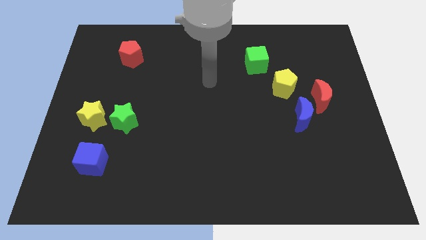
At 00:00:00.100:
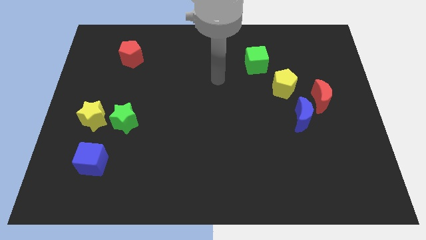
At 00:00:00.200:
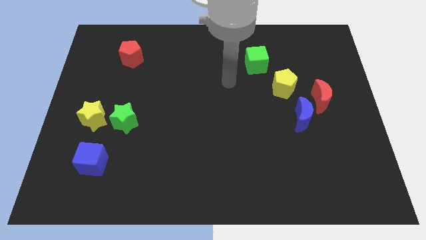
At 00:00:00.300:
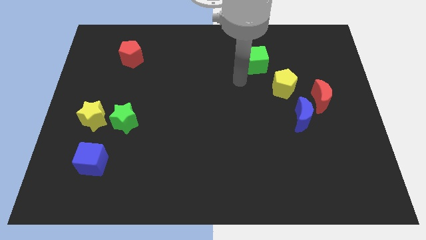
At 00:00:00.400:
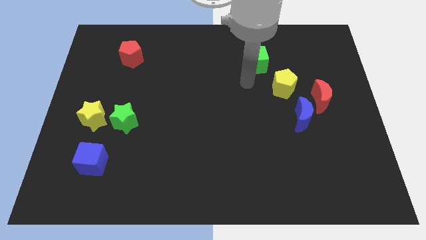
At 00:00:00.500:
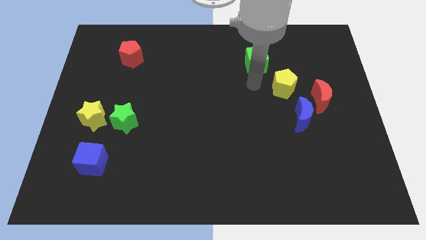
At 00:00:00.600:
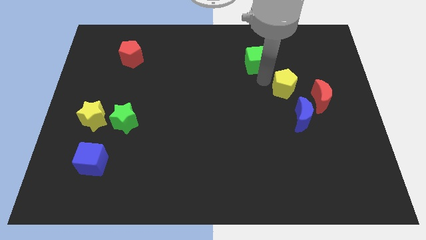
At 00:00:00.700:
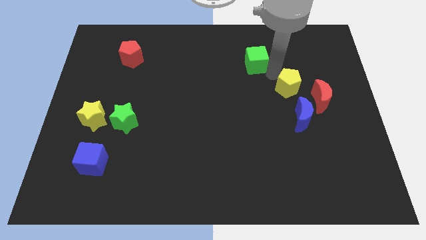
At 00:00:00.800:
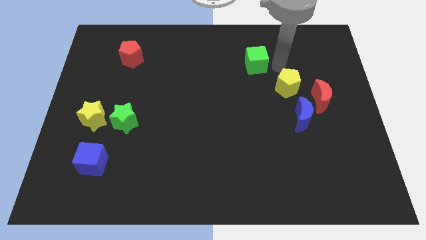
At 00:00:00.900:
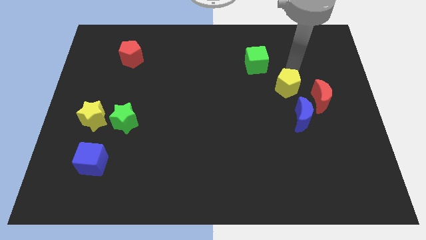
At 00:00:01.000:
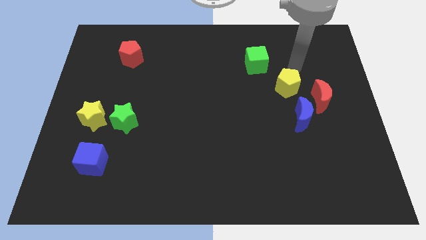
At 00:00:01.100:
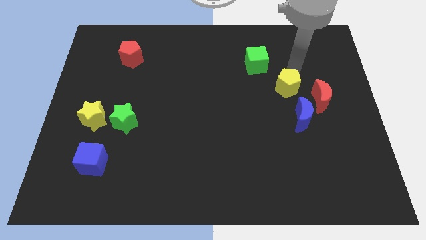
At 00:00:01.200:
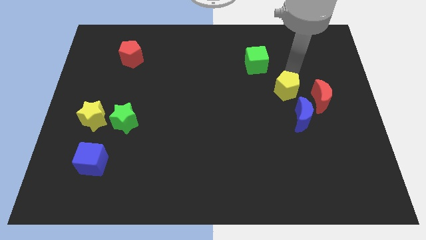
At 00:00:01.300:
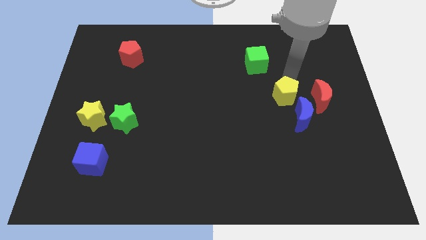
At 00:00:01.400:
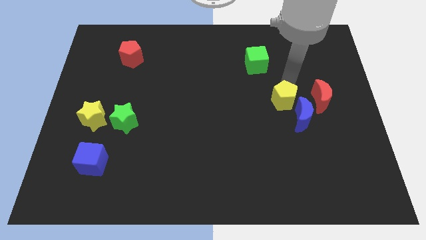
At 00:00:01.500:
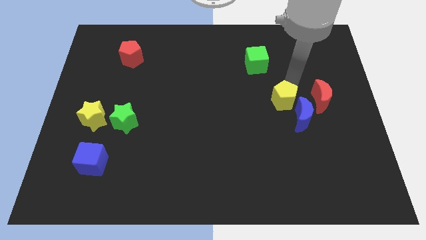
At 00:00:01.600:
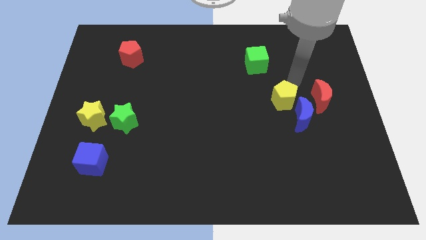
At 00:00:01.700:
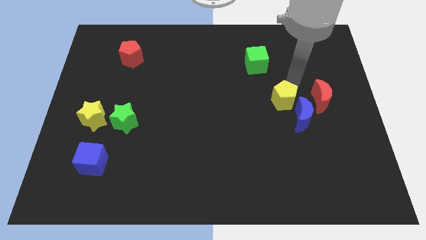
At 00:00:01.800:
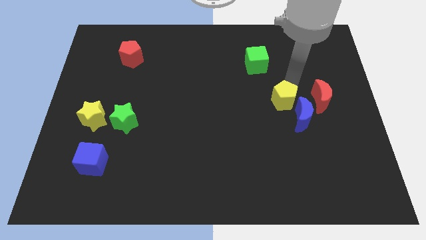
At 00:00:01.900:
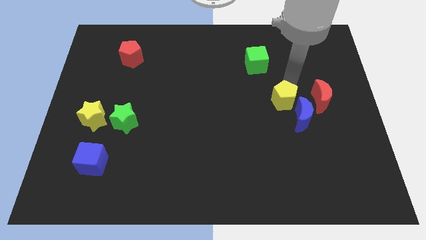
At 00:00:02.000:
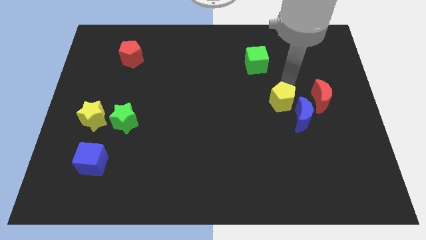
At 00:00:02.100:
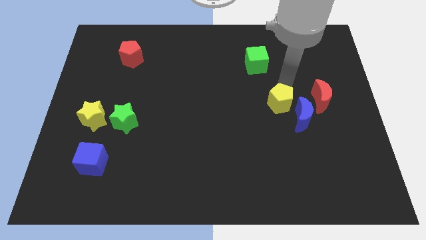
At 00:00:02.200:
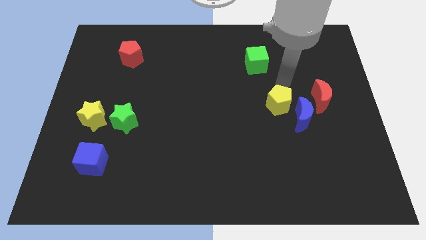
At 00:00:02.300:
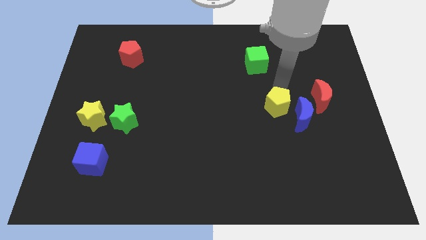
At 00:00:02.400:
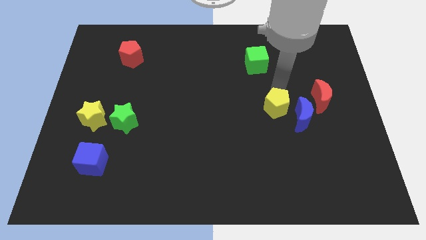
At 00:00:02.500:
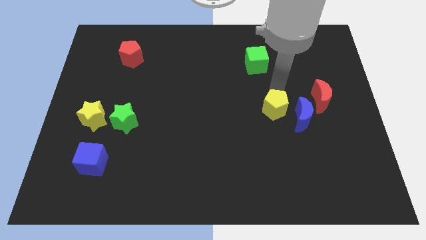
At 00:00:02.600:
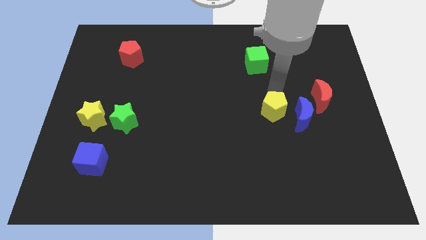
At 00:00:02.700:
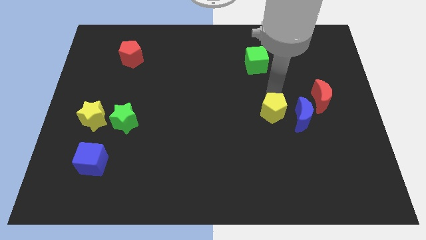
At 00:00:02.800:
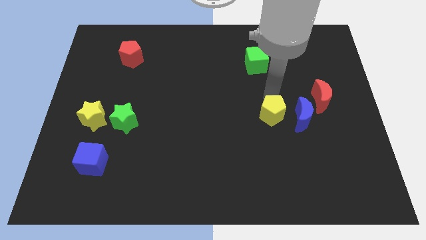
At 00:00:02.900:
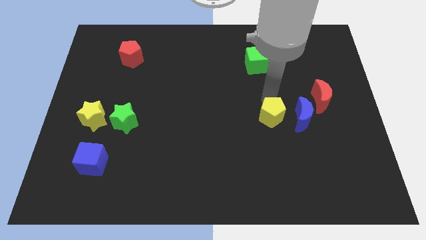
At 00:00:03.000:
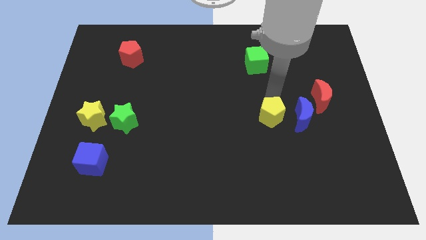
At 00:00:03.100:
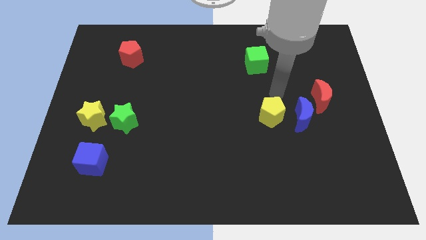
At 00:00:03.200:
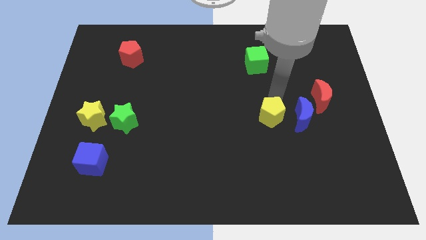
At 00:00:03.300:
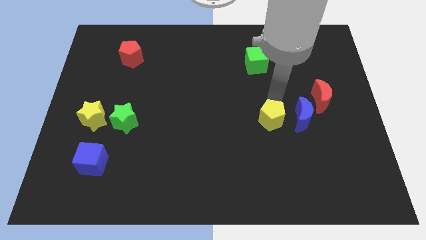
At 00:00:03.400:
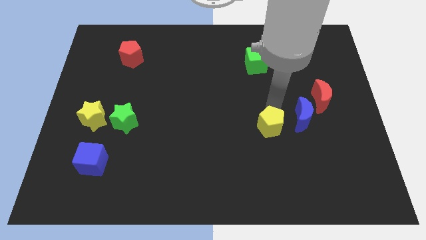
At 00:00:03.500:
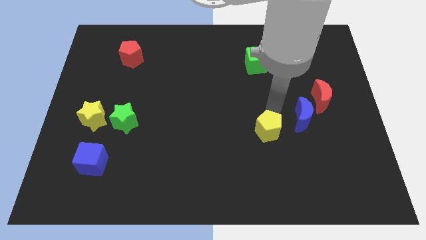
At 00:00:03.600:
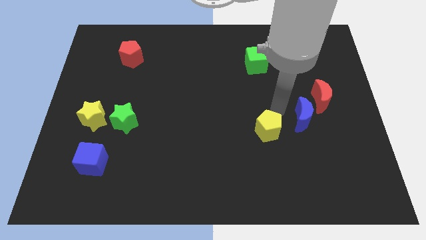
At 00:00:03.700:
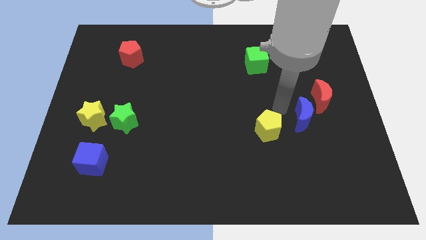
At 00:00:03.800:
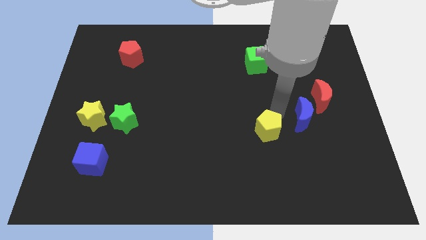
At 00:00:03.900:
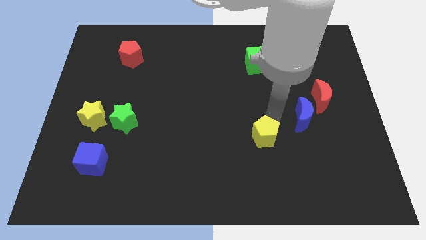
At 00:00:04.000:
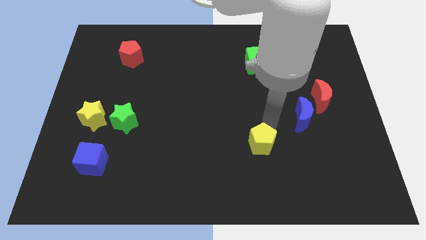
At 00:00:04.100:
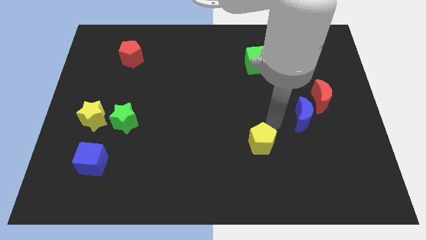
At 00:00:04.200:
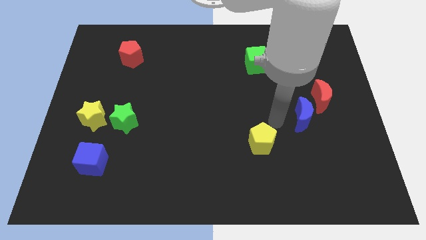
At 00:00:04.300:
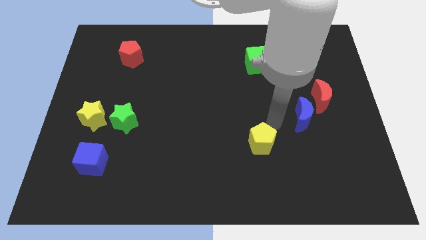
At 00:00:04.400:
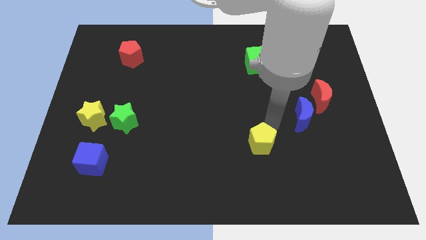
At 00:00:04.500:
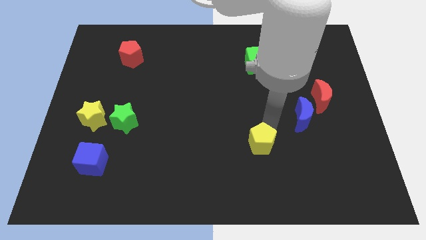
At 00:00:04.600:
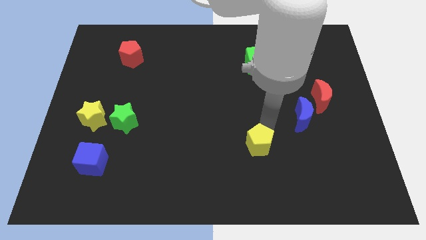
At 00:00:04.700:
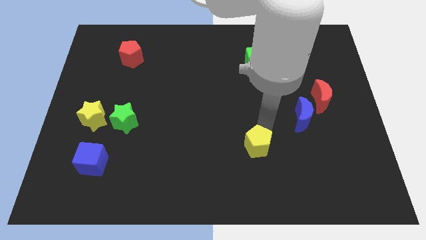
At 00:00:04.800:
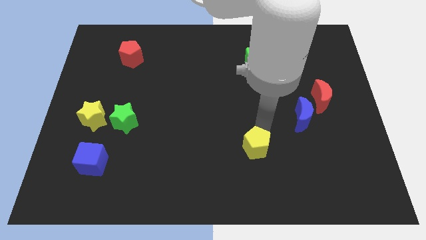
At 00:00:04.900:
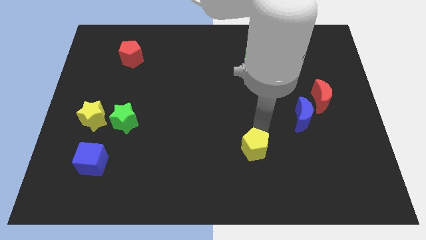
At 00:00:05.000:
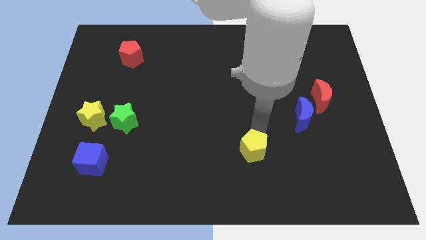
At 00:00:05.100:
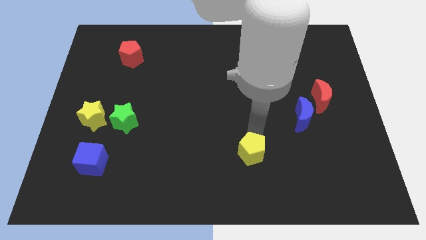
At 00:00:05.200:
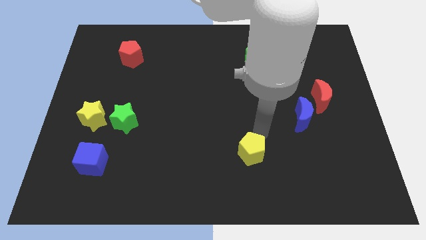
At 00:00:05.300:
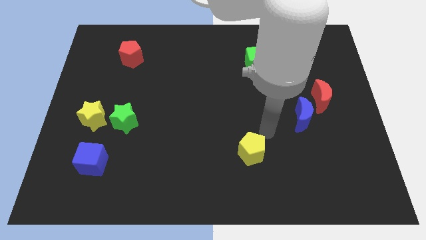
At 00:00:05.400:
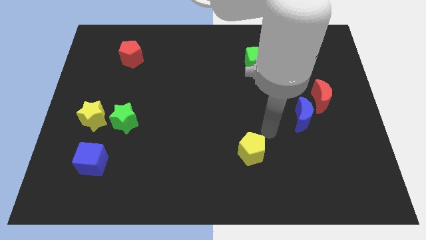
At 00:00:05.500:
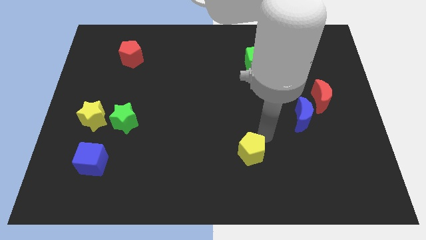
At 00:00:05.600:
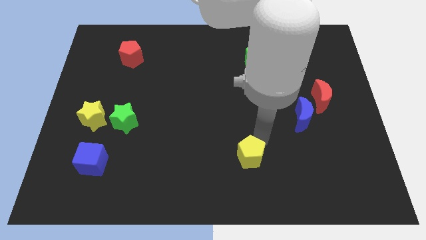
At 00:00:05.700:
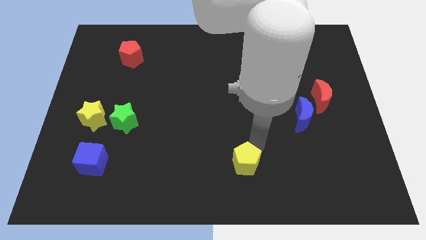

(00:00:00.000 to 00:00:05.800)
slide the yellow pentagon to the bottom side
